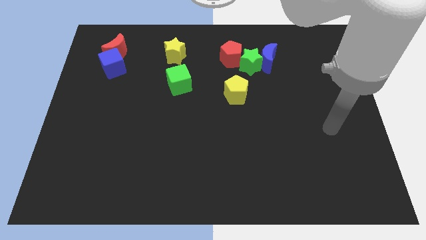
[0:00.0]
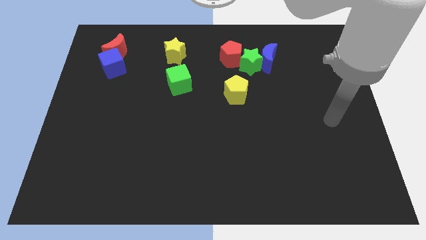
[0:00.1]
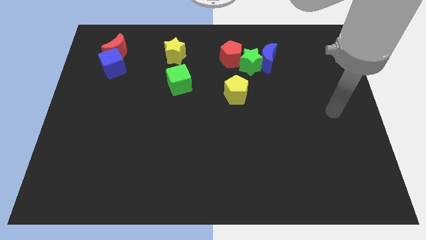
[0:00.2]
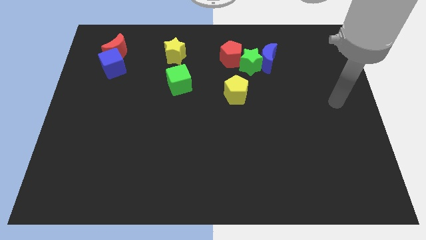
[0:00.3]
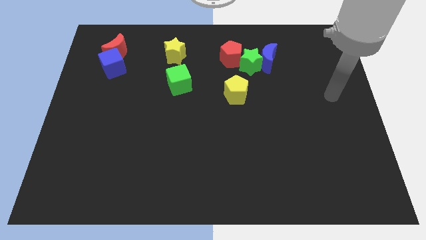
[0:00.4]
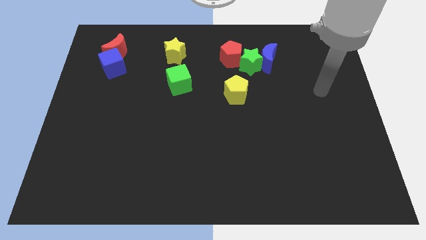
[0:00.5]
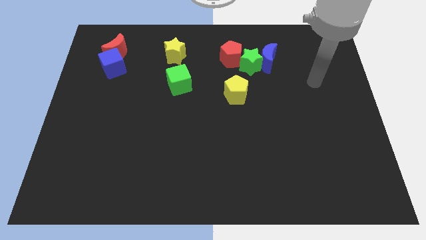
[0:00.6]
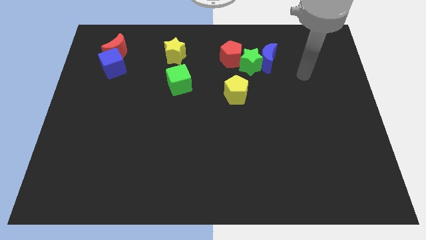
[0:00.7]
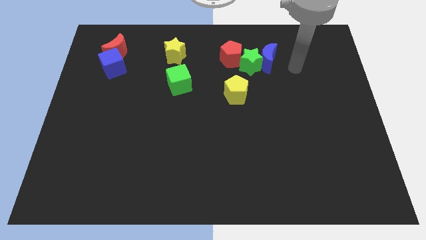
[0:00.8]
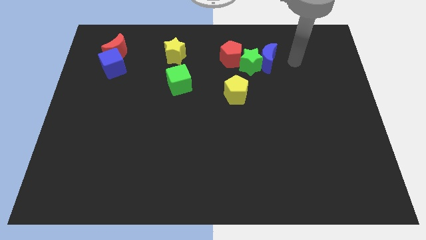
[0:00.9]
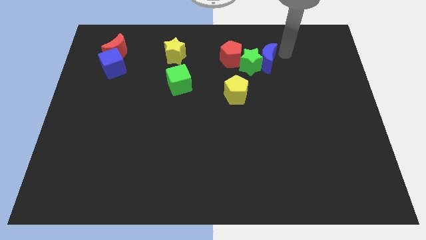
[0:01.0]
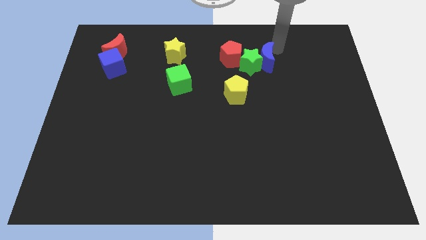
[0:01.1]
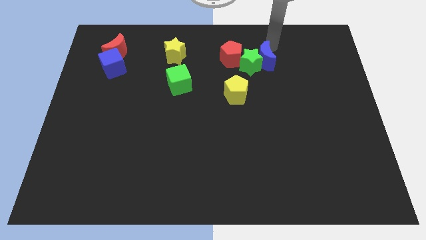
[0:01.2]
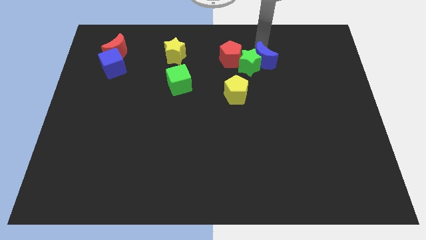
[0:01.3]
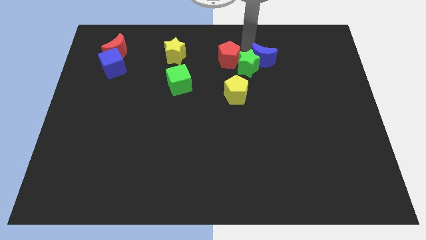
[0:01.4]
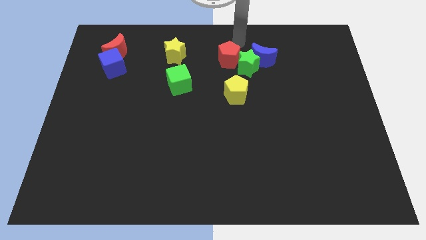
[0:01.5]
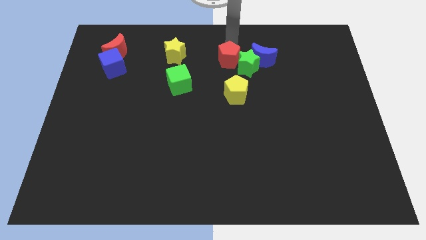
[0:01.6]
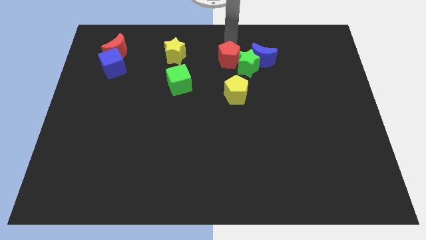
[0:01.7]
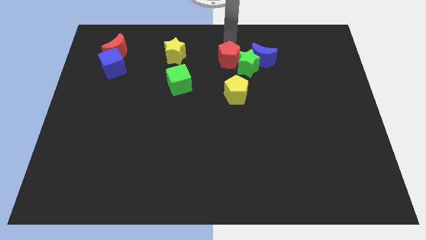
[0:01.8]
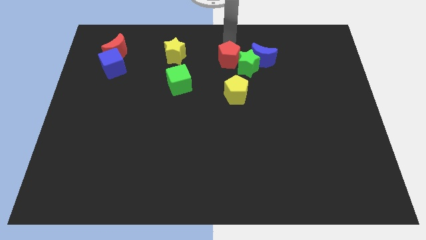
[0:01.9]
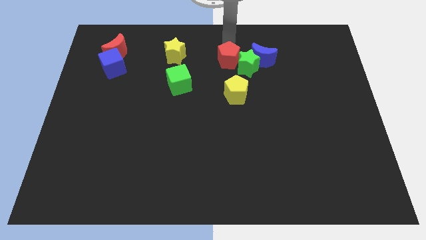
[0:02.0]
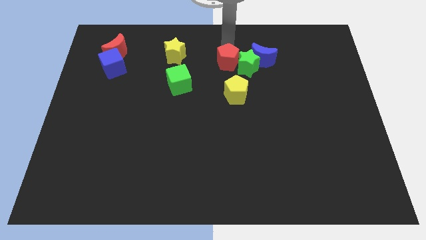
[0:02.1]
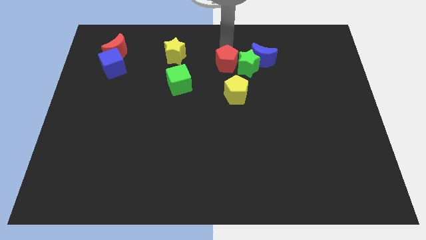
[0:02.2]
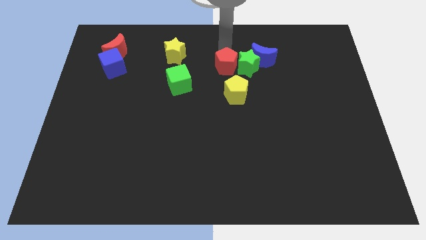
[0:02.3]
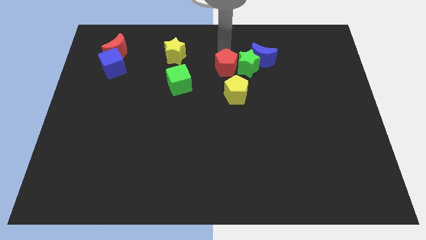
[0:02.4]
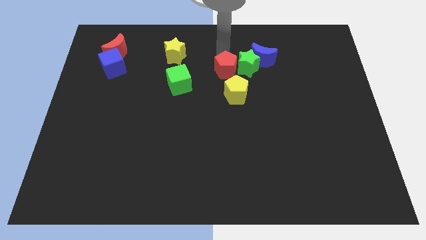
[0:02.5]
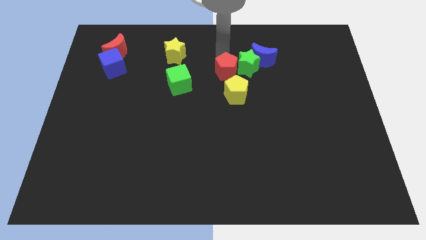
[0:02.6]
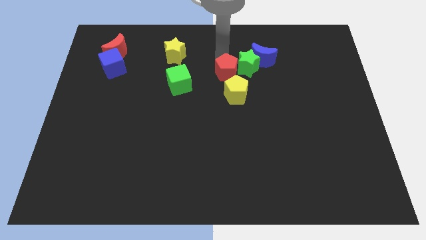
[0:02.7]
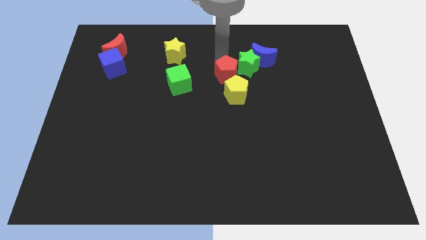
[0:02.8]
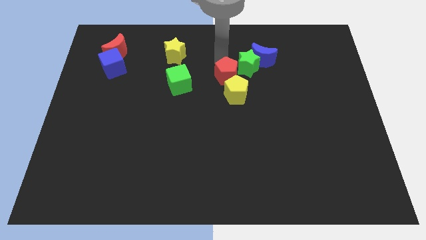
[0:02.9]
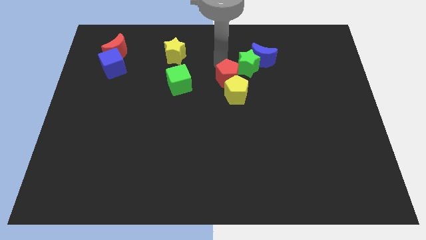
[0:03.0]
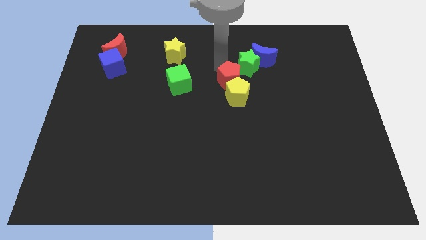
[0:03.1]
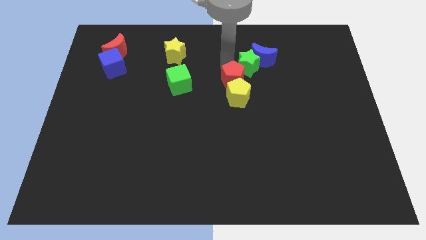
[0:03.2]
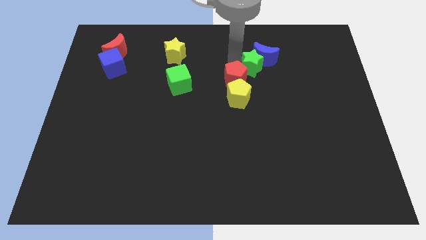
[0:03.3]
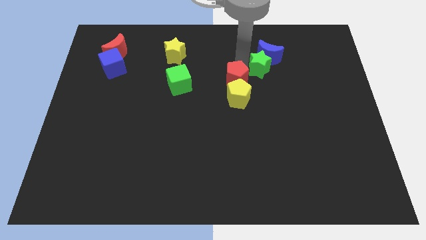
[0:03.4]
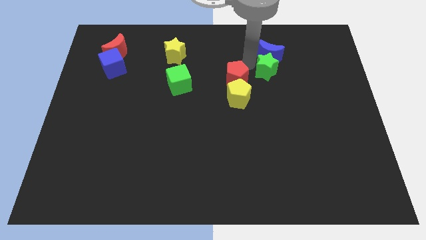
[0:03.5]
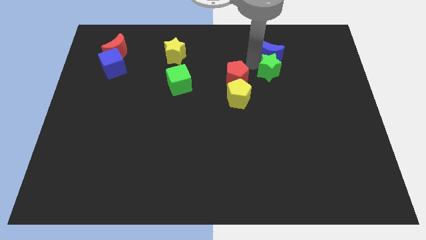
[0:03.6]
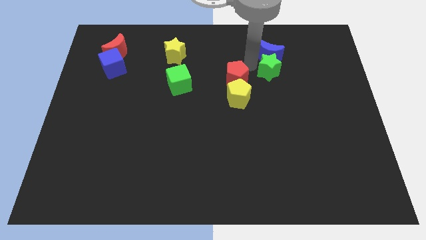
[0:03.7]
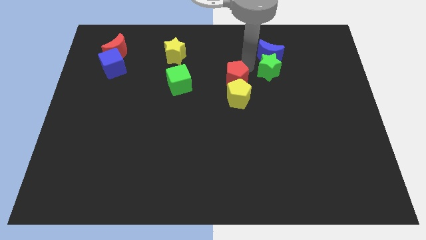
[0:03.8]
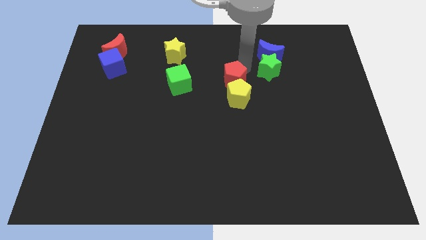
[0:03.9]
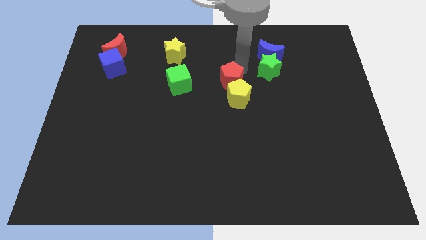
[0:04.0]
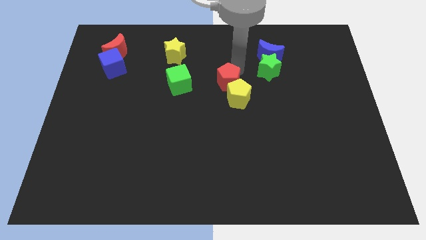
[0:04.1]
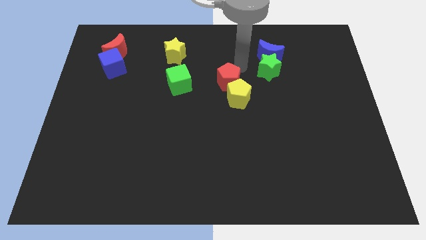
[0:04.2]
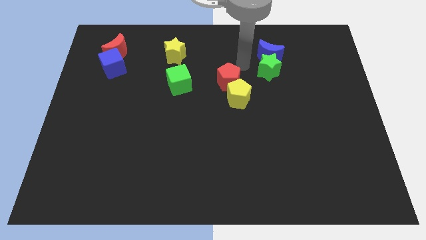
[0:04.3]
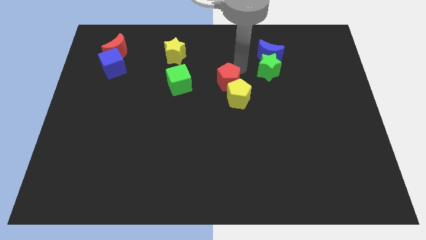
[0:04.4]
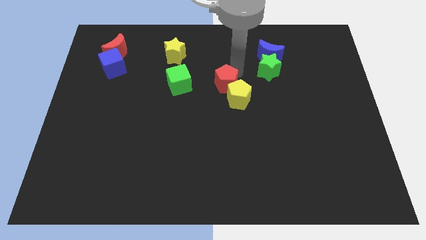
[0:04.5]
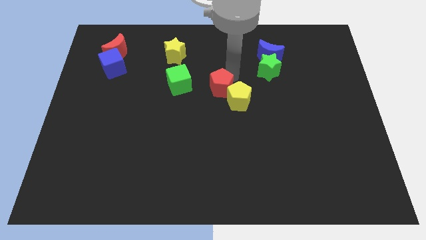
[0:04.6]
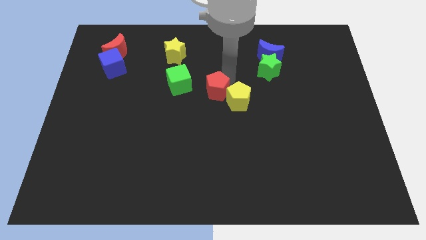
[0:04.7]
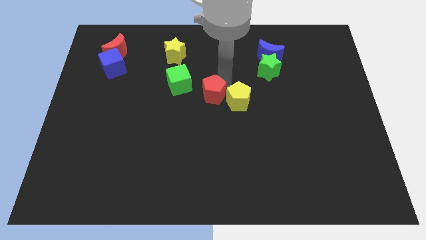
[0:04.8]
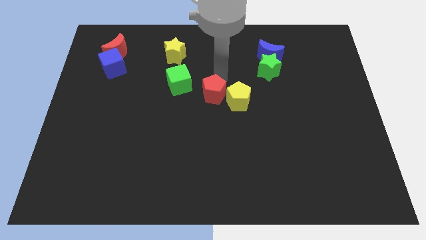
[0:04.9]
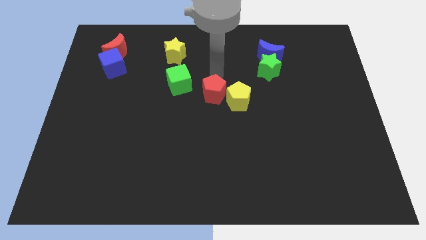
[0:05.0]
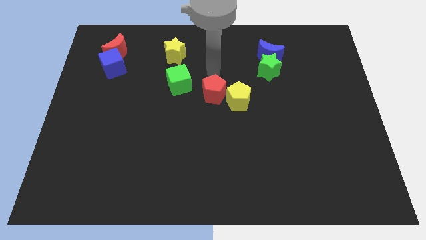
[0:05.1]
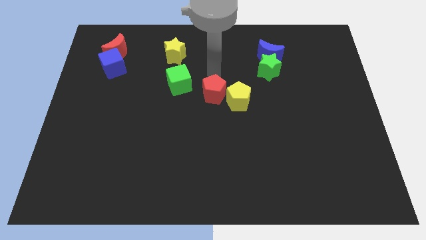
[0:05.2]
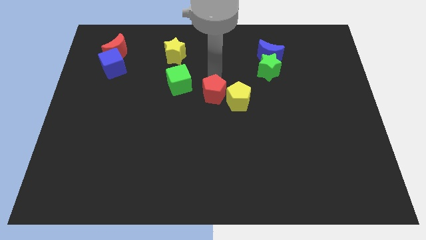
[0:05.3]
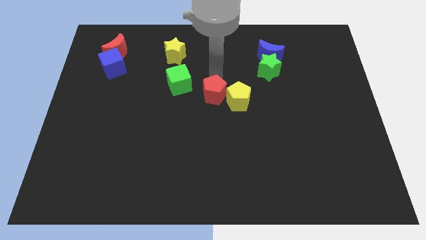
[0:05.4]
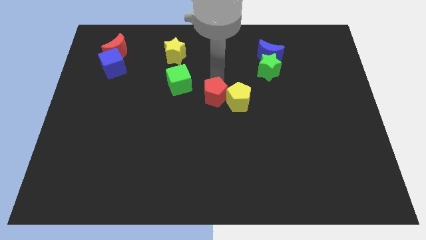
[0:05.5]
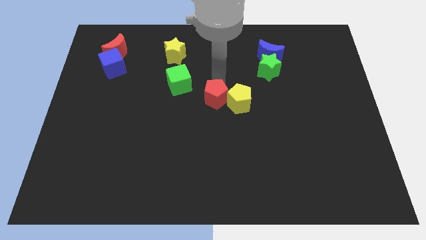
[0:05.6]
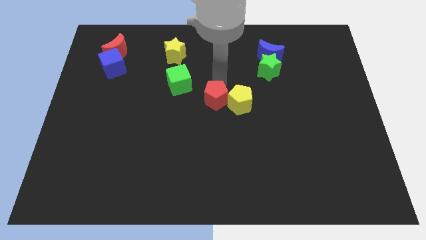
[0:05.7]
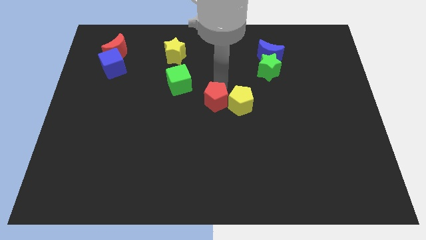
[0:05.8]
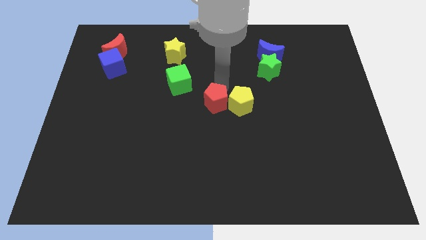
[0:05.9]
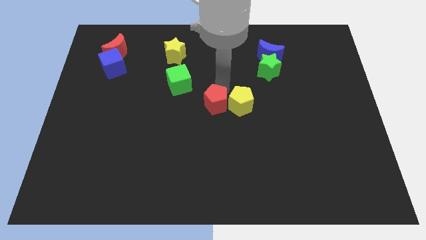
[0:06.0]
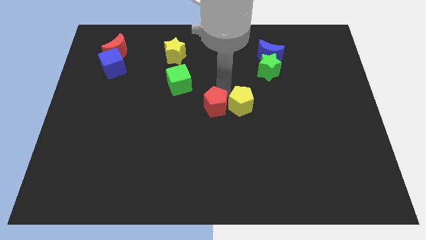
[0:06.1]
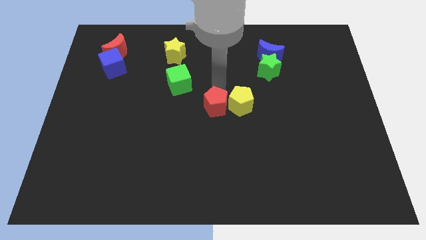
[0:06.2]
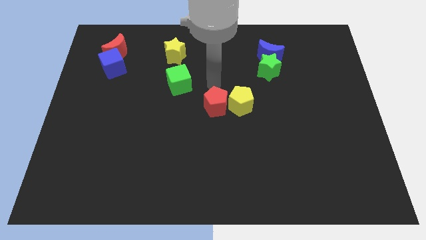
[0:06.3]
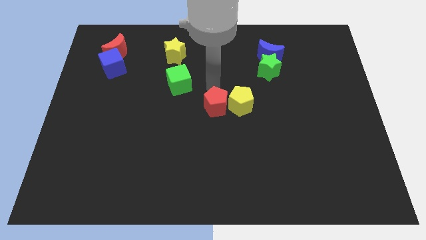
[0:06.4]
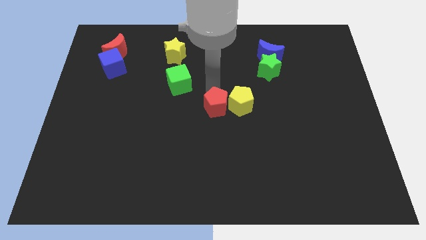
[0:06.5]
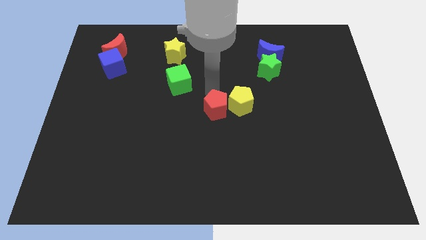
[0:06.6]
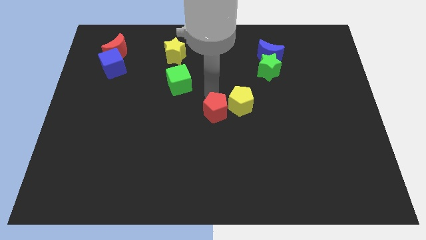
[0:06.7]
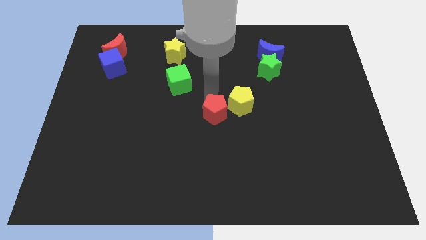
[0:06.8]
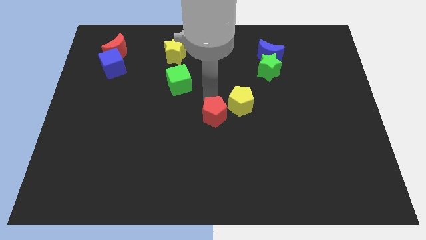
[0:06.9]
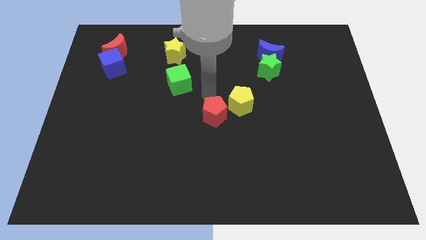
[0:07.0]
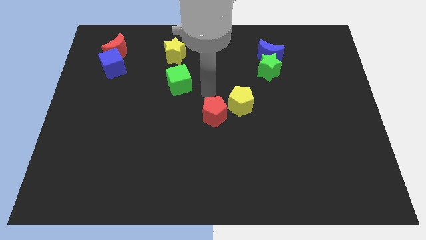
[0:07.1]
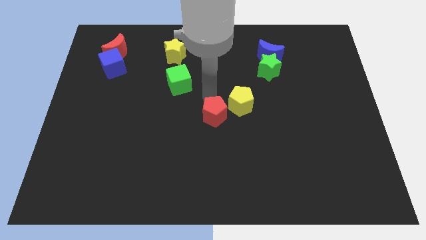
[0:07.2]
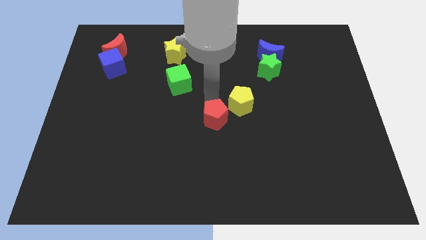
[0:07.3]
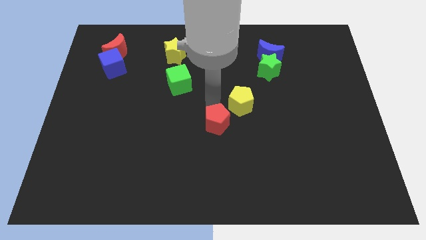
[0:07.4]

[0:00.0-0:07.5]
push the red pentagon down

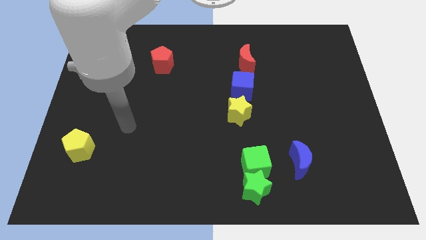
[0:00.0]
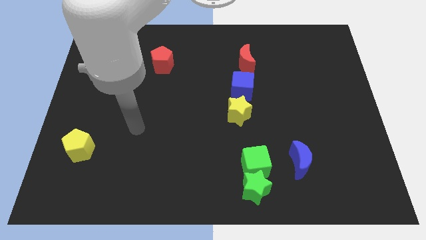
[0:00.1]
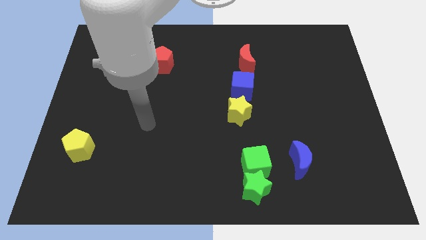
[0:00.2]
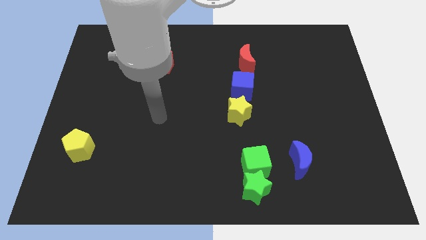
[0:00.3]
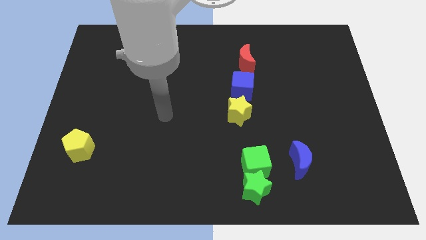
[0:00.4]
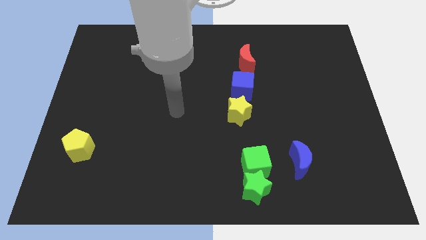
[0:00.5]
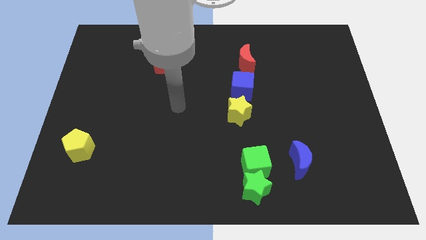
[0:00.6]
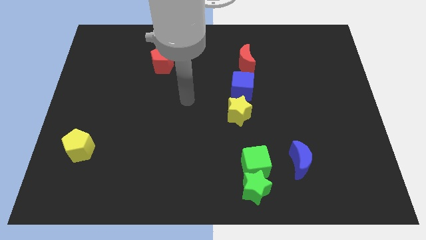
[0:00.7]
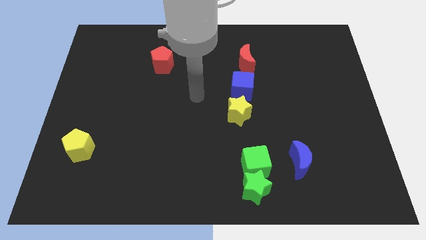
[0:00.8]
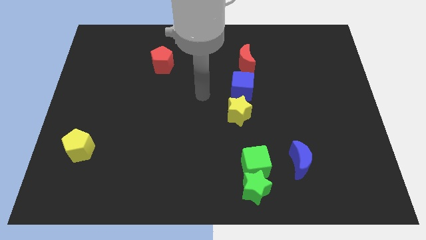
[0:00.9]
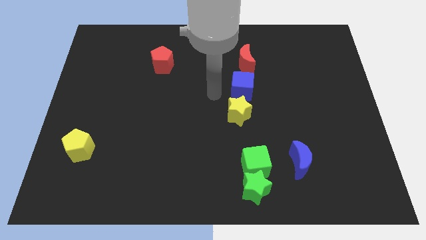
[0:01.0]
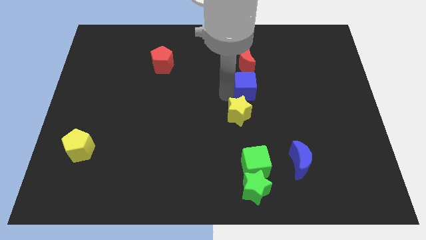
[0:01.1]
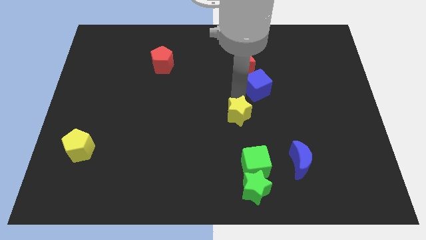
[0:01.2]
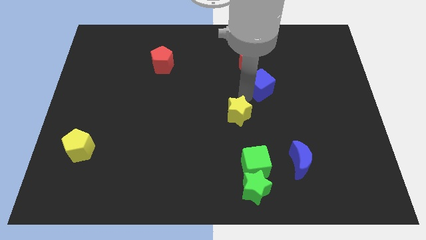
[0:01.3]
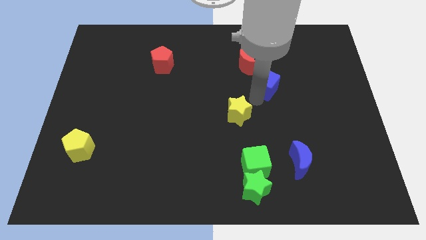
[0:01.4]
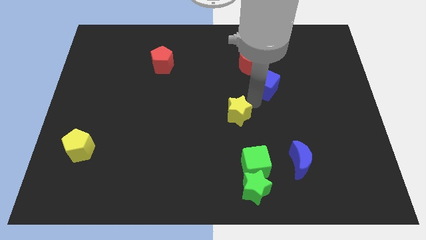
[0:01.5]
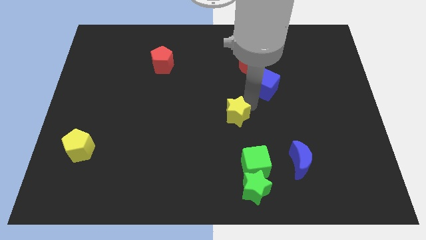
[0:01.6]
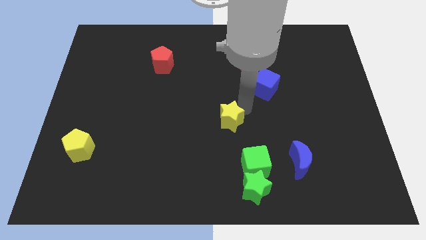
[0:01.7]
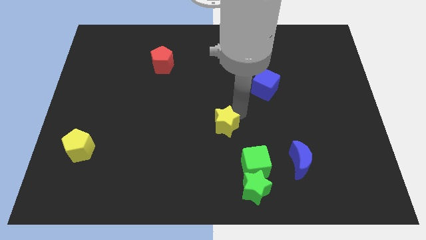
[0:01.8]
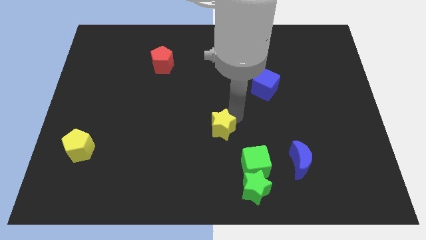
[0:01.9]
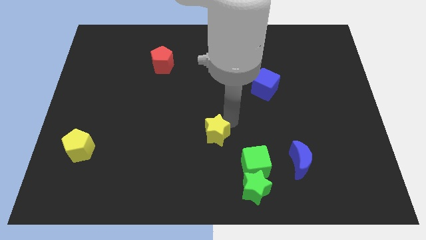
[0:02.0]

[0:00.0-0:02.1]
slide the yellow star diagonally downwards and left a bit
